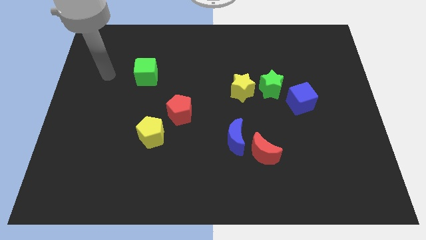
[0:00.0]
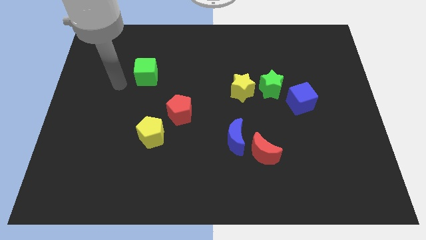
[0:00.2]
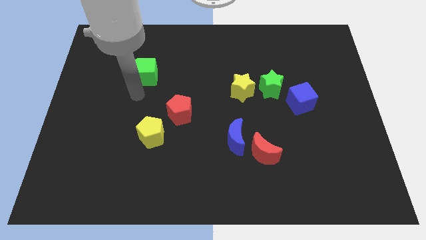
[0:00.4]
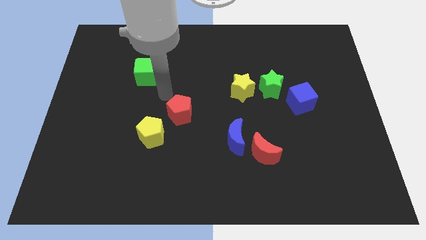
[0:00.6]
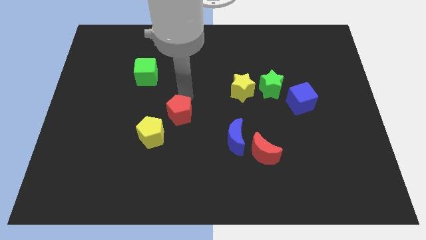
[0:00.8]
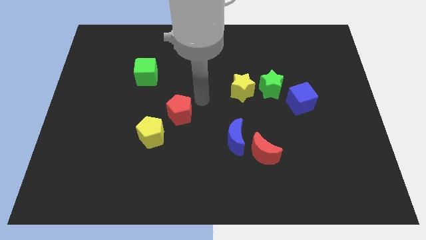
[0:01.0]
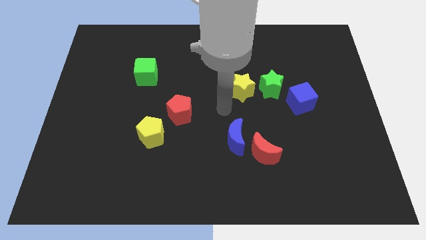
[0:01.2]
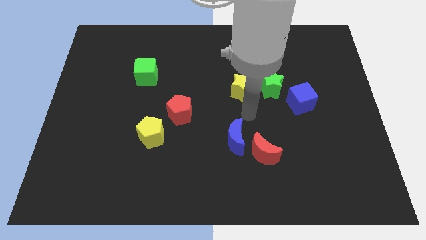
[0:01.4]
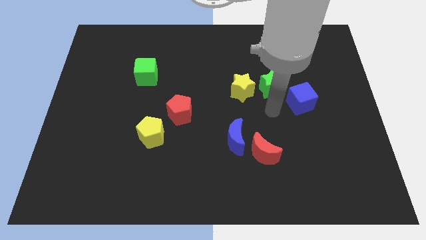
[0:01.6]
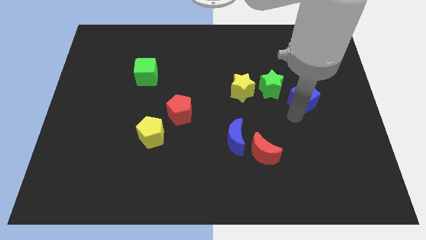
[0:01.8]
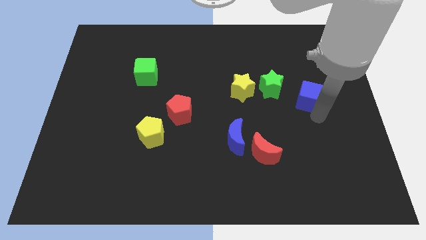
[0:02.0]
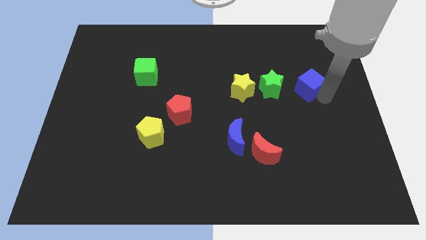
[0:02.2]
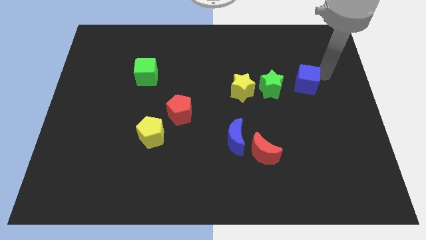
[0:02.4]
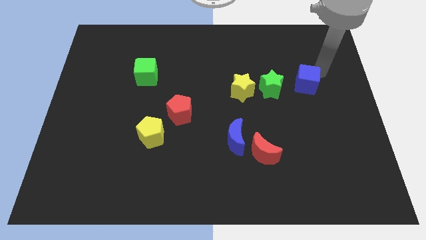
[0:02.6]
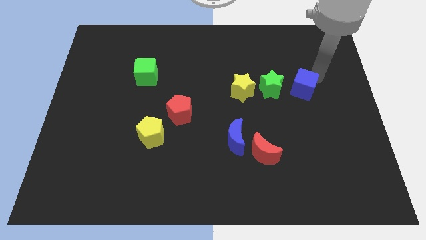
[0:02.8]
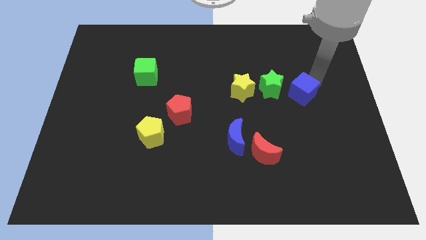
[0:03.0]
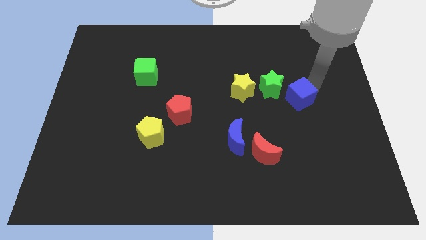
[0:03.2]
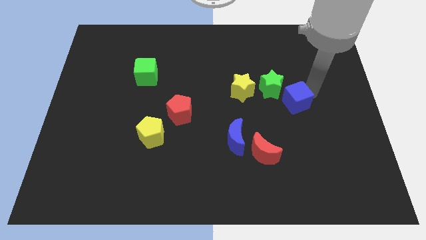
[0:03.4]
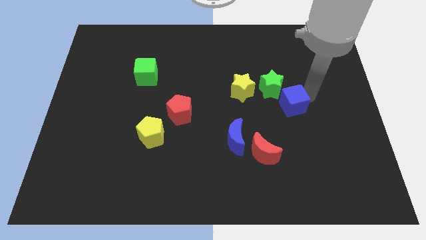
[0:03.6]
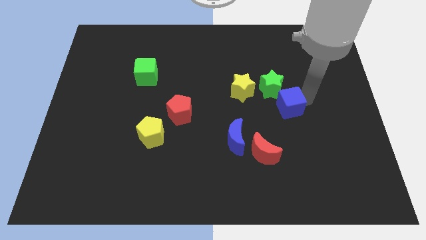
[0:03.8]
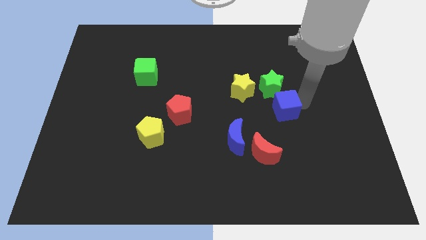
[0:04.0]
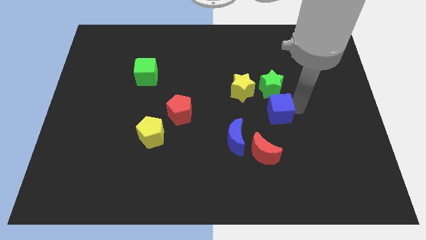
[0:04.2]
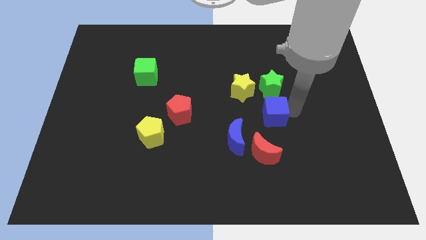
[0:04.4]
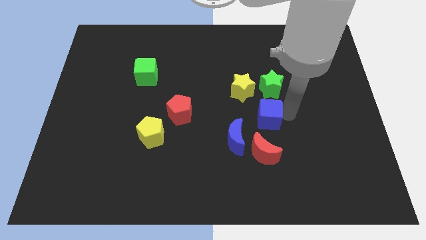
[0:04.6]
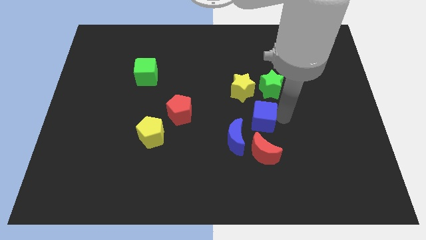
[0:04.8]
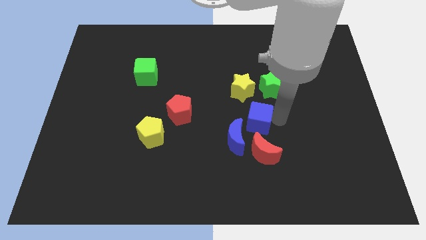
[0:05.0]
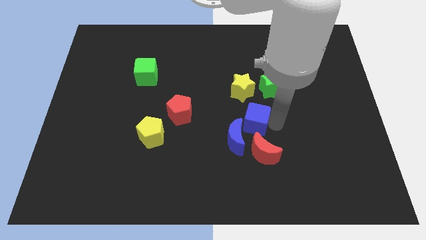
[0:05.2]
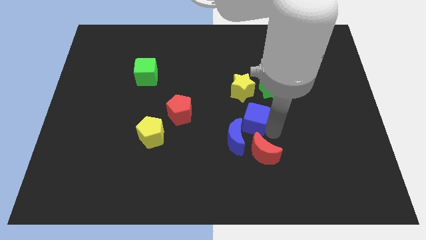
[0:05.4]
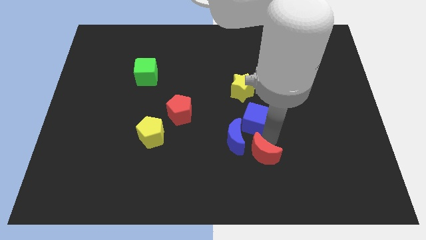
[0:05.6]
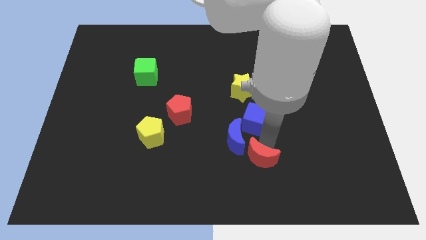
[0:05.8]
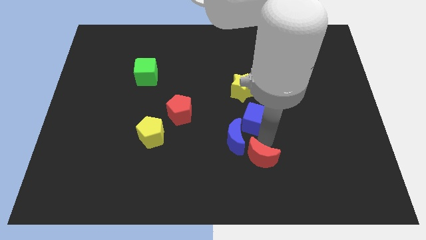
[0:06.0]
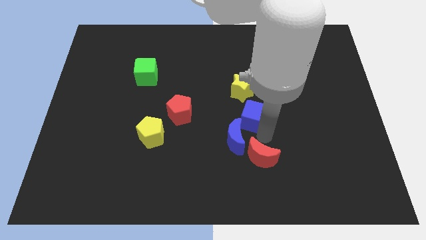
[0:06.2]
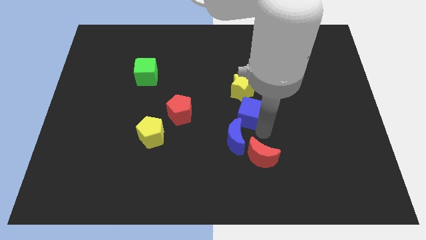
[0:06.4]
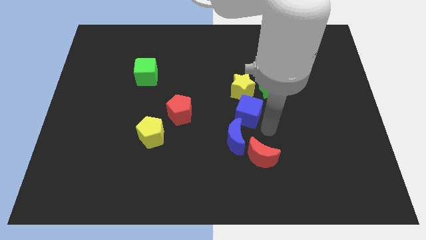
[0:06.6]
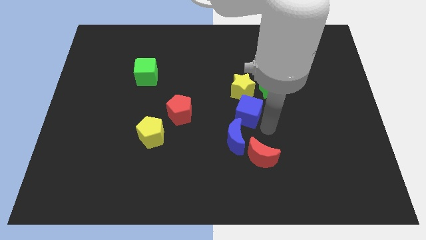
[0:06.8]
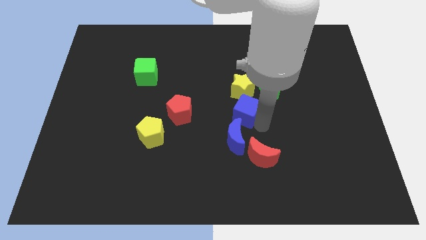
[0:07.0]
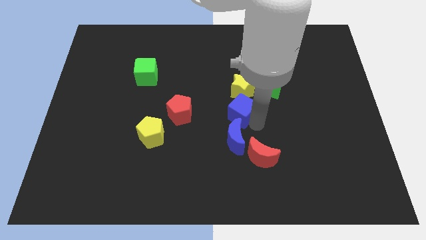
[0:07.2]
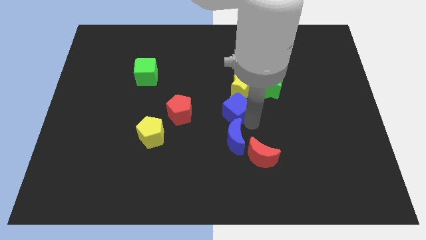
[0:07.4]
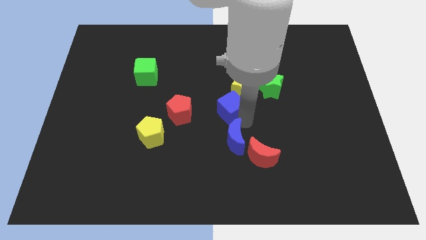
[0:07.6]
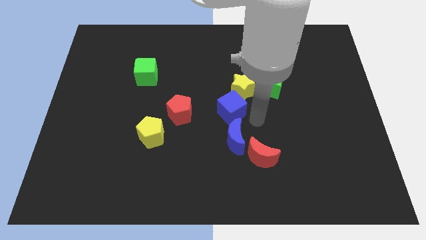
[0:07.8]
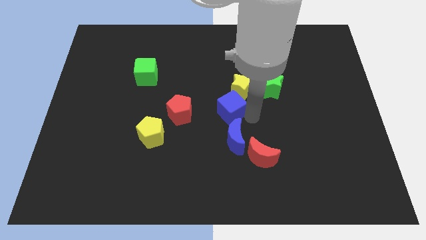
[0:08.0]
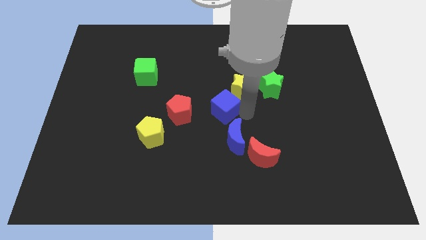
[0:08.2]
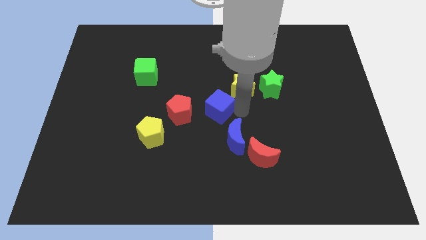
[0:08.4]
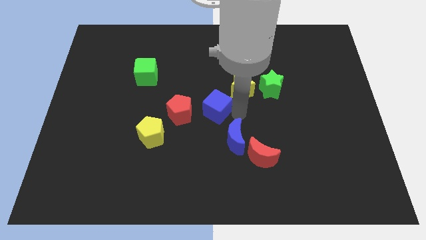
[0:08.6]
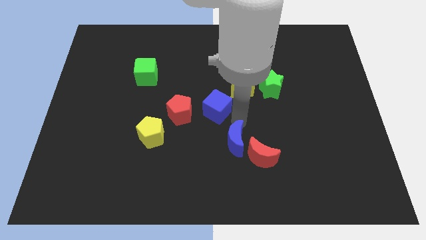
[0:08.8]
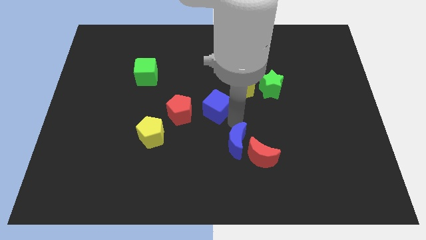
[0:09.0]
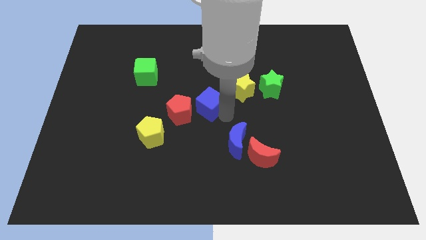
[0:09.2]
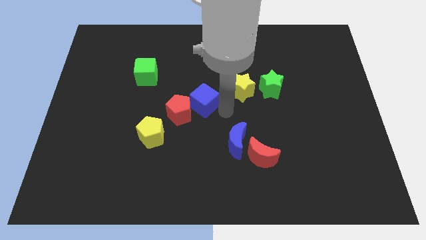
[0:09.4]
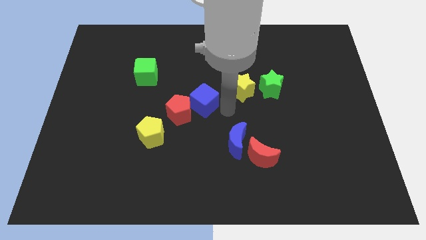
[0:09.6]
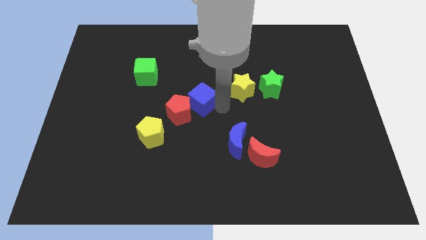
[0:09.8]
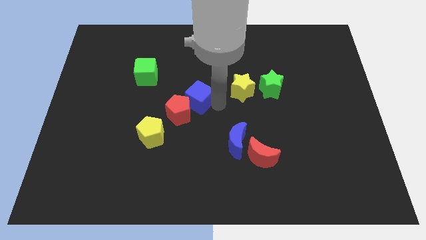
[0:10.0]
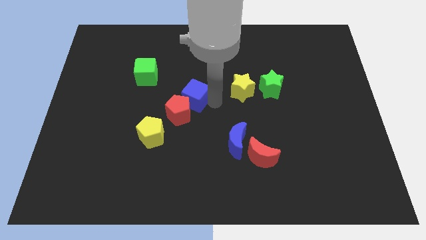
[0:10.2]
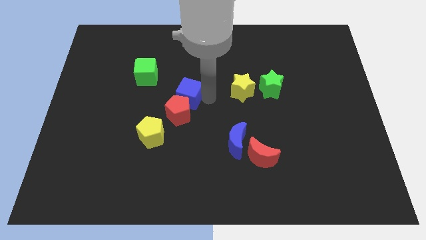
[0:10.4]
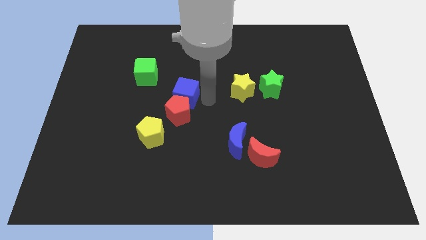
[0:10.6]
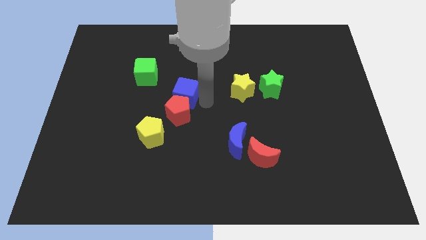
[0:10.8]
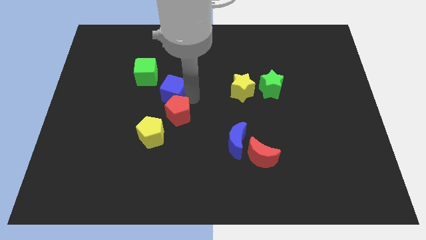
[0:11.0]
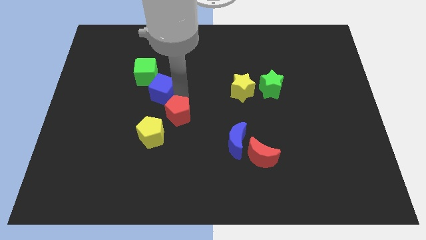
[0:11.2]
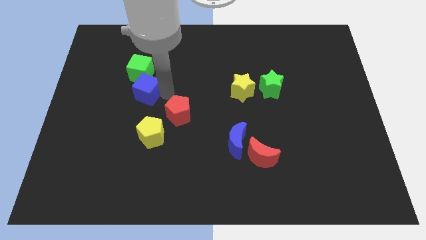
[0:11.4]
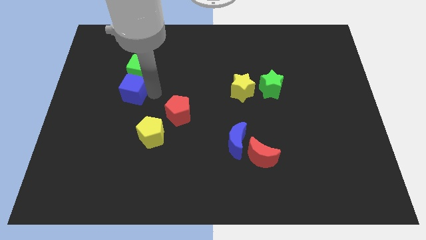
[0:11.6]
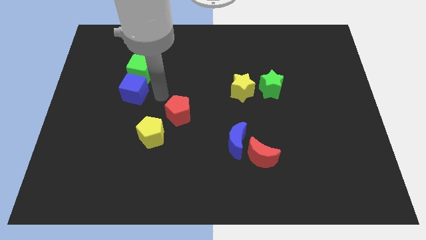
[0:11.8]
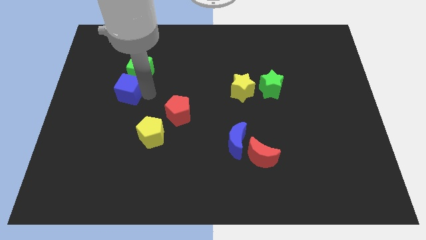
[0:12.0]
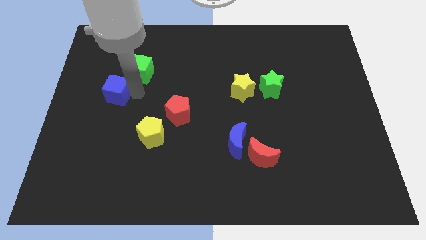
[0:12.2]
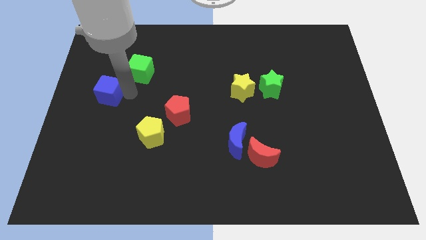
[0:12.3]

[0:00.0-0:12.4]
slide the blue cube to the left side of the board

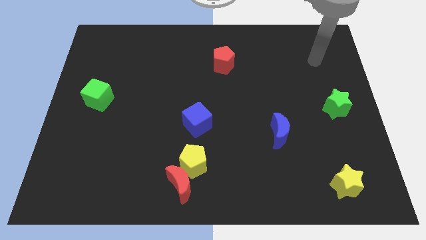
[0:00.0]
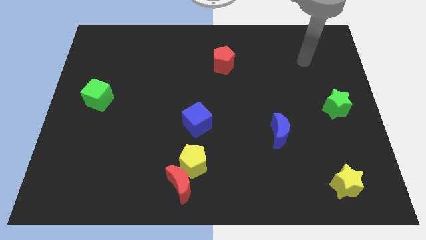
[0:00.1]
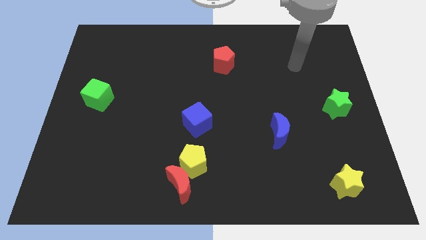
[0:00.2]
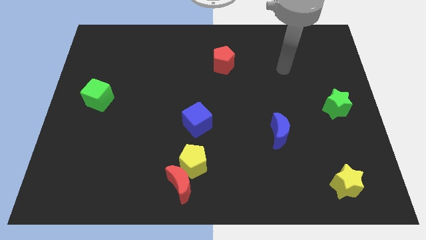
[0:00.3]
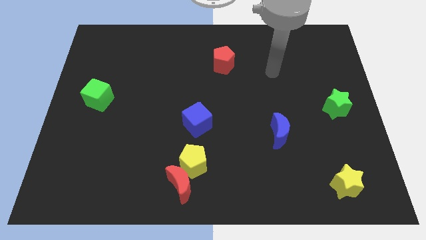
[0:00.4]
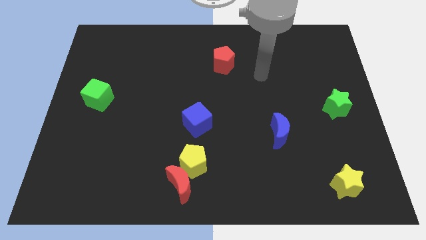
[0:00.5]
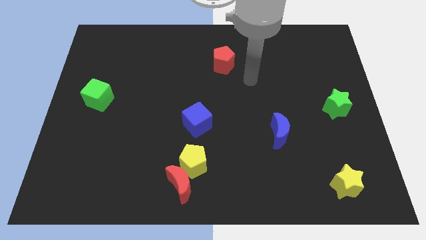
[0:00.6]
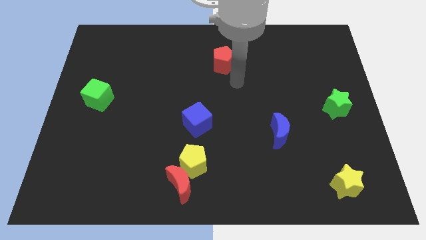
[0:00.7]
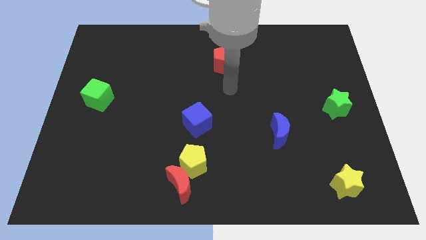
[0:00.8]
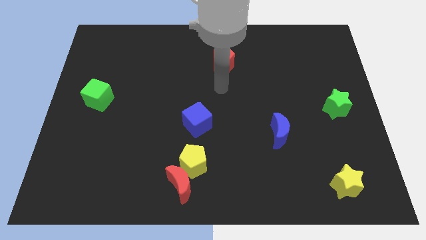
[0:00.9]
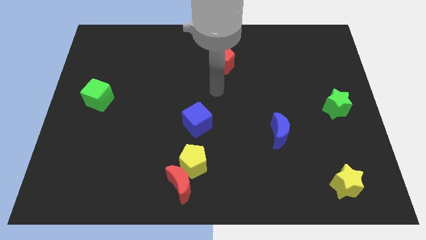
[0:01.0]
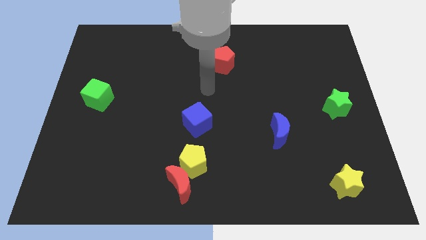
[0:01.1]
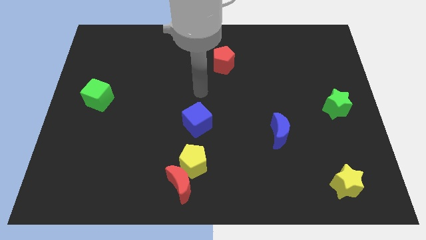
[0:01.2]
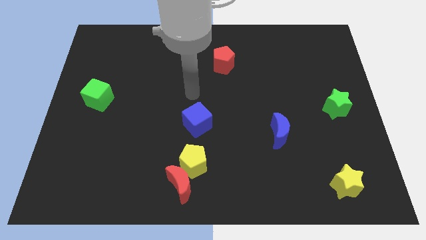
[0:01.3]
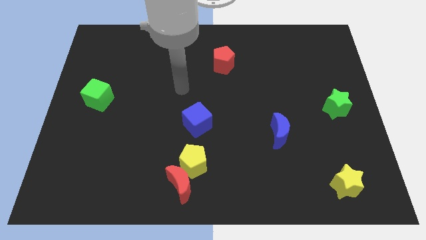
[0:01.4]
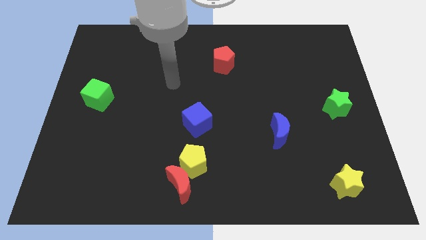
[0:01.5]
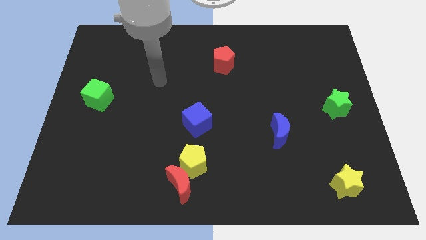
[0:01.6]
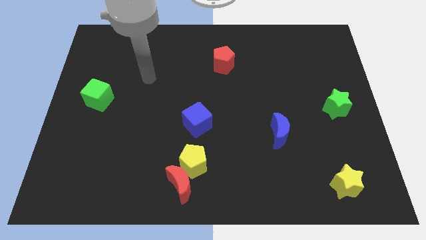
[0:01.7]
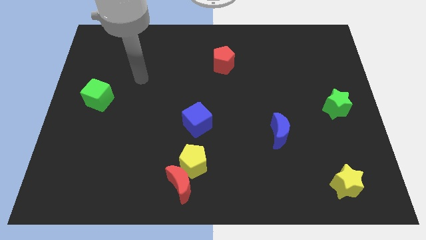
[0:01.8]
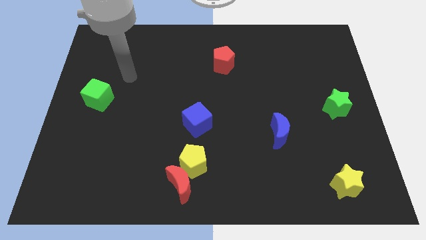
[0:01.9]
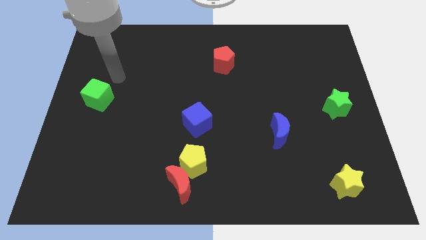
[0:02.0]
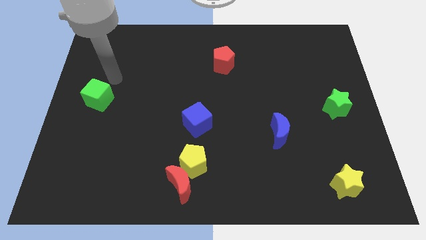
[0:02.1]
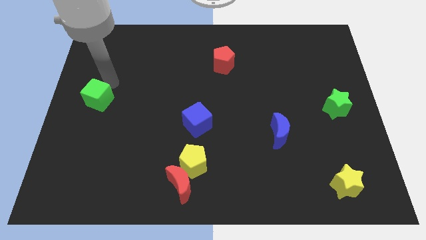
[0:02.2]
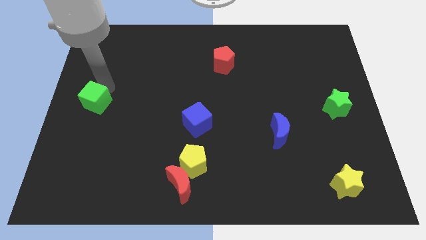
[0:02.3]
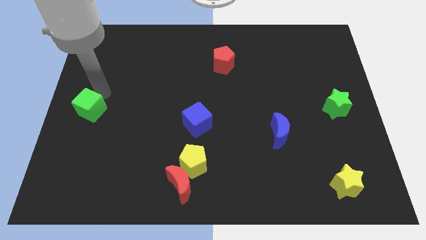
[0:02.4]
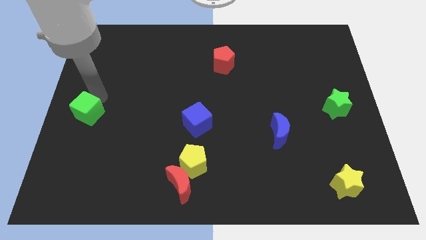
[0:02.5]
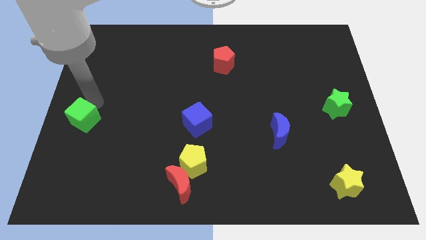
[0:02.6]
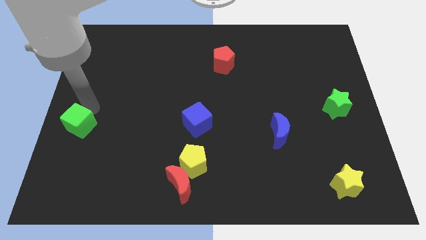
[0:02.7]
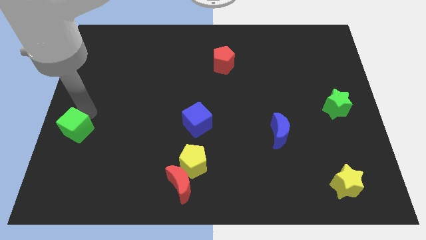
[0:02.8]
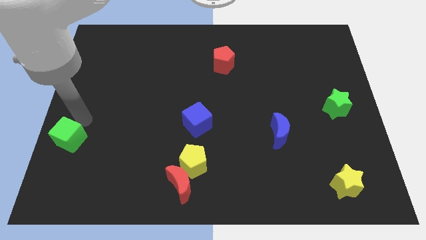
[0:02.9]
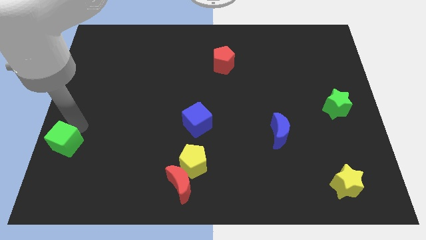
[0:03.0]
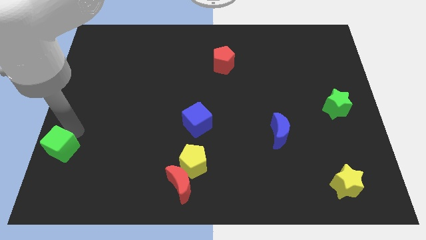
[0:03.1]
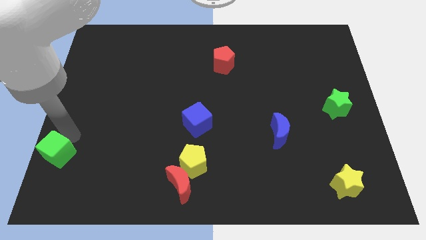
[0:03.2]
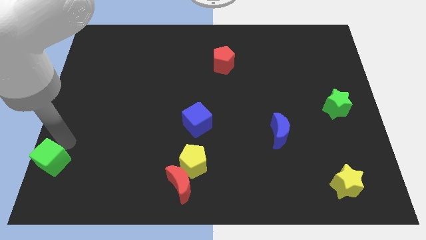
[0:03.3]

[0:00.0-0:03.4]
push the green cube to the lower left corner
